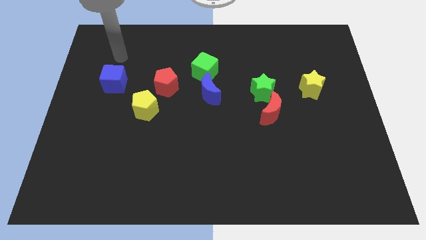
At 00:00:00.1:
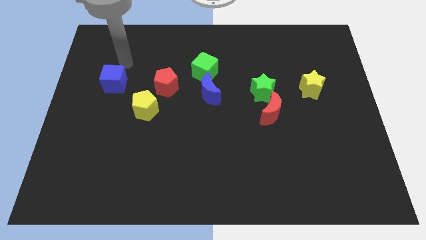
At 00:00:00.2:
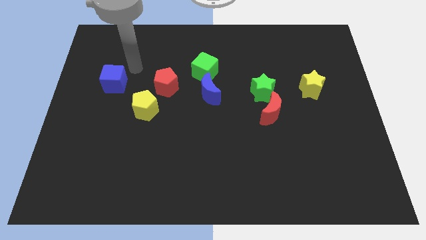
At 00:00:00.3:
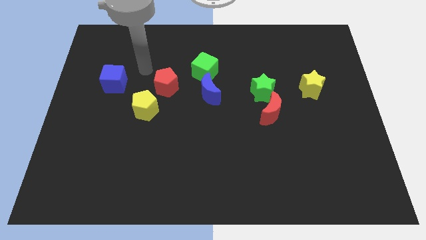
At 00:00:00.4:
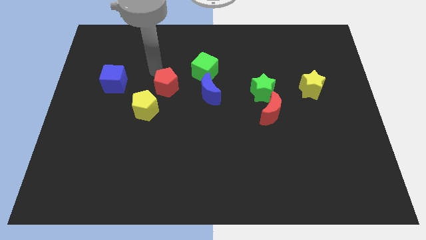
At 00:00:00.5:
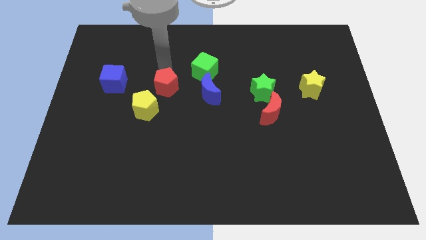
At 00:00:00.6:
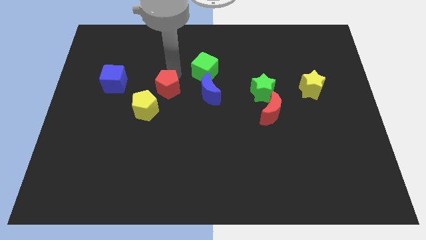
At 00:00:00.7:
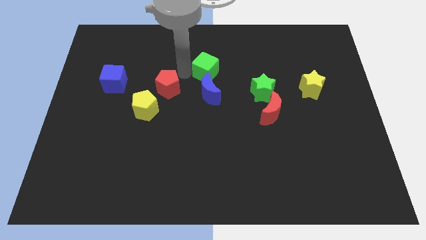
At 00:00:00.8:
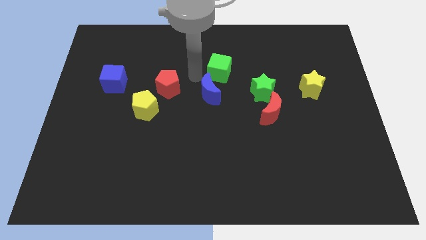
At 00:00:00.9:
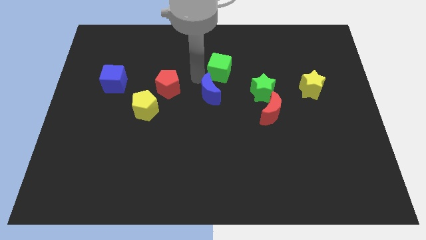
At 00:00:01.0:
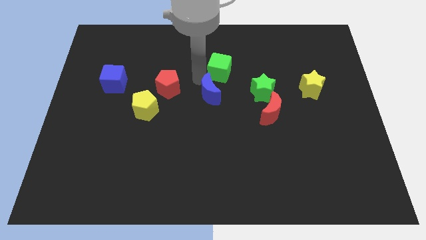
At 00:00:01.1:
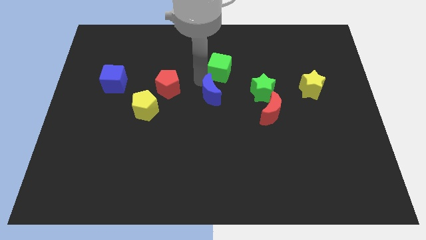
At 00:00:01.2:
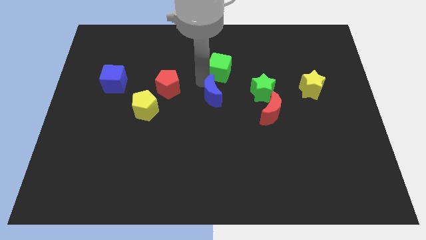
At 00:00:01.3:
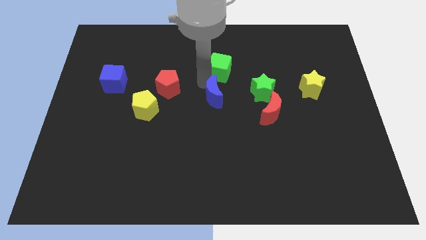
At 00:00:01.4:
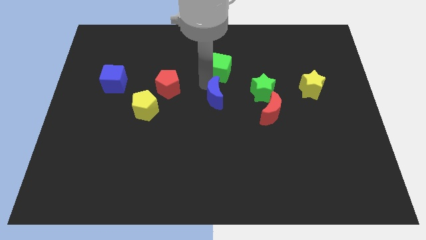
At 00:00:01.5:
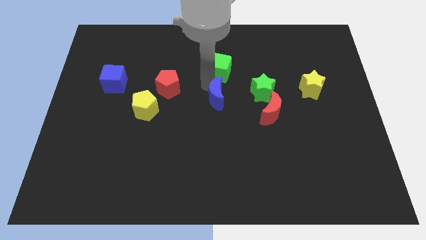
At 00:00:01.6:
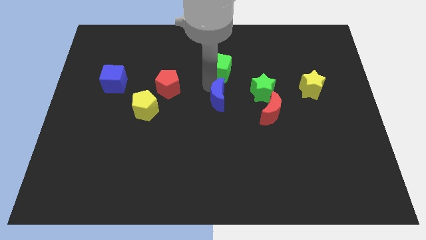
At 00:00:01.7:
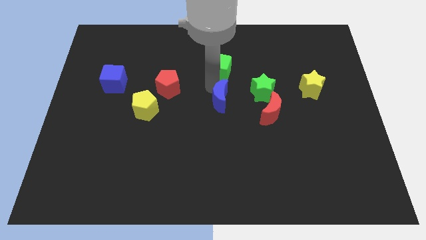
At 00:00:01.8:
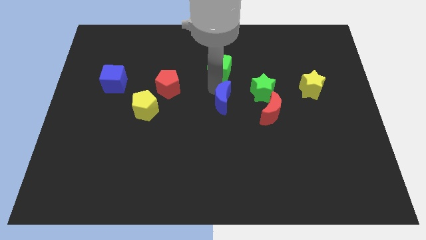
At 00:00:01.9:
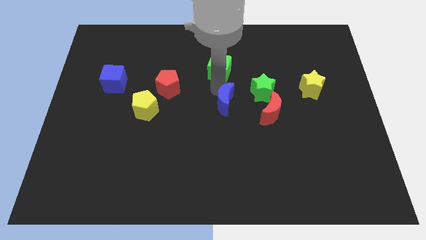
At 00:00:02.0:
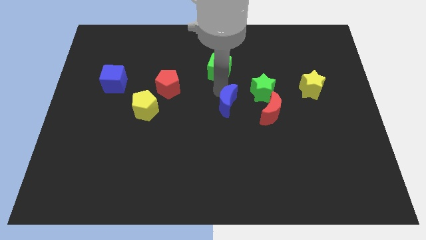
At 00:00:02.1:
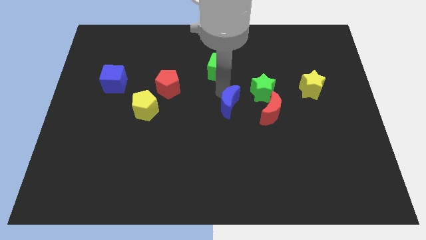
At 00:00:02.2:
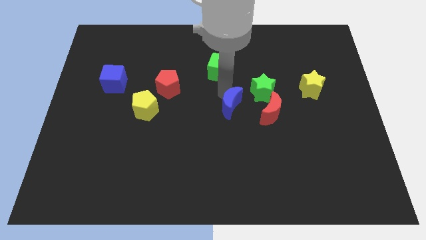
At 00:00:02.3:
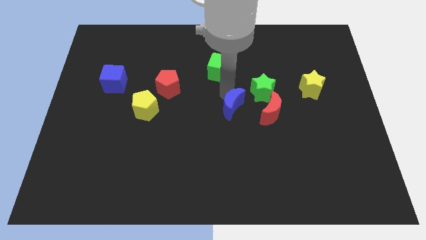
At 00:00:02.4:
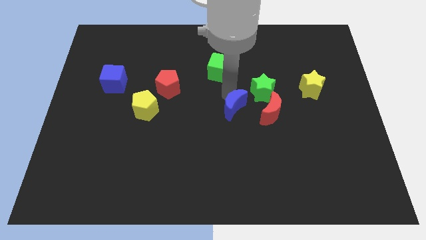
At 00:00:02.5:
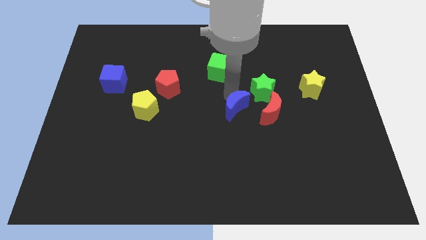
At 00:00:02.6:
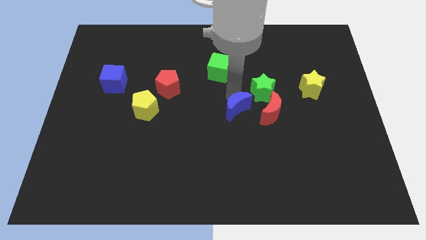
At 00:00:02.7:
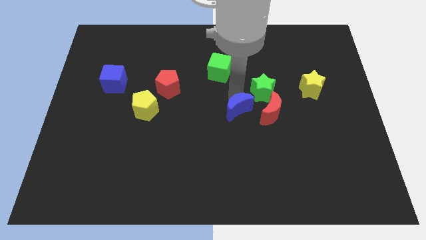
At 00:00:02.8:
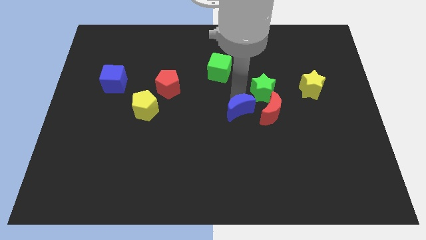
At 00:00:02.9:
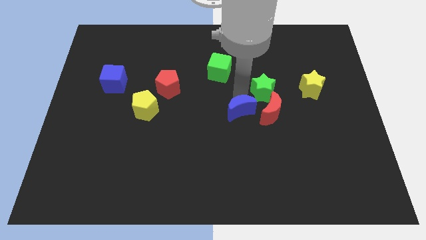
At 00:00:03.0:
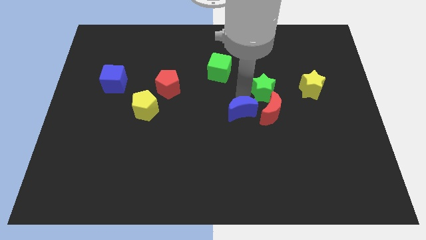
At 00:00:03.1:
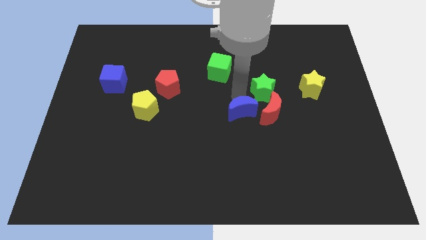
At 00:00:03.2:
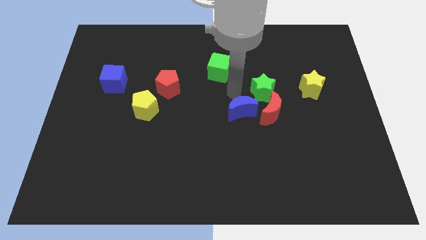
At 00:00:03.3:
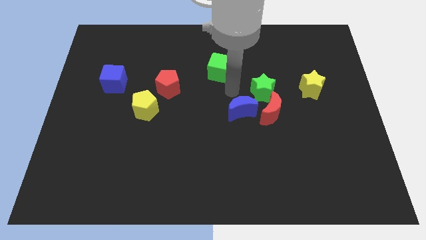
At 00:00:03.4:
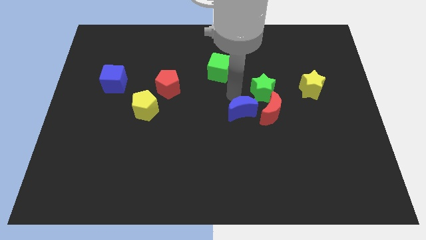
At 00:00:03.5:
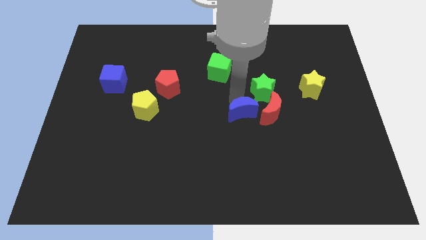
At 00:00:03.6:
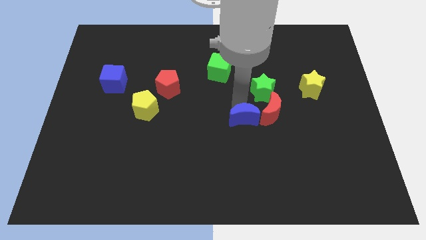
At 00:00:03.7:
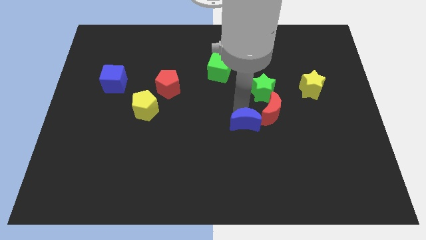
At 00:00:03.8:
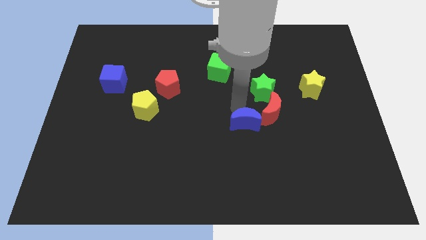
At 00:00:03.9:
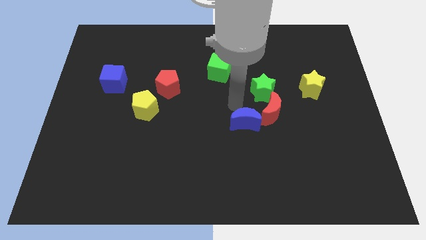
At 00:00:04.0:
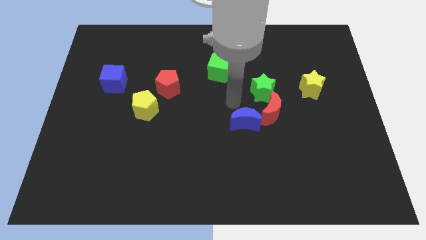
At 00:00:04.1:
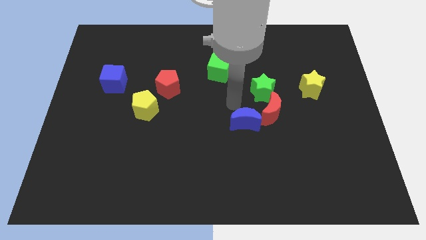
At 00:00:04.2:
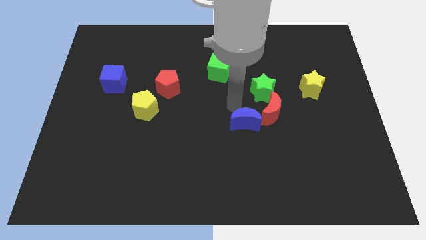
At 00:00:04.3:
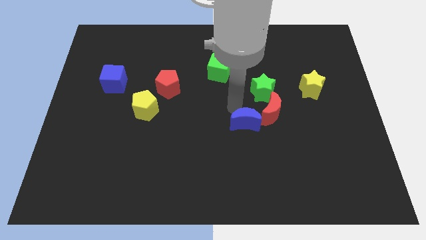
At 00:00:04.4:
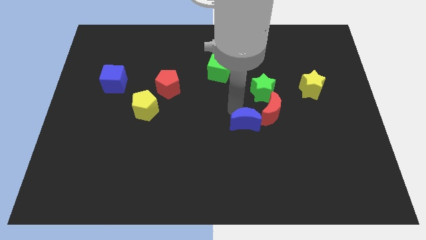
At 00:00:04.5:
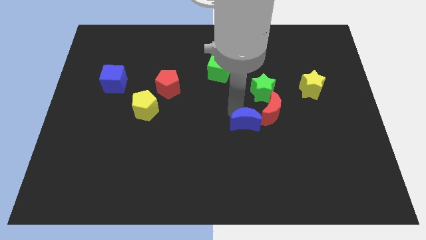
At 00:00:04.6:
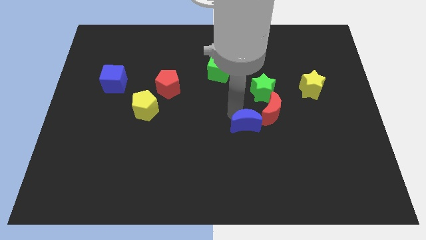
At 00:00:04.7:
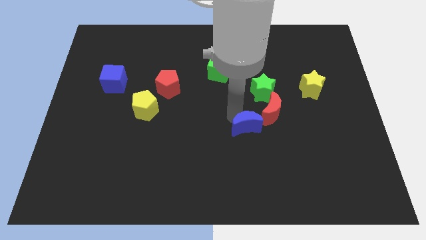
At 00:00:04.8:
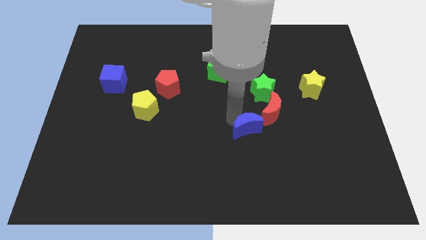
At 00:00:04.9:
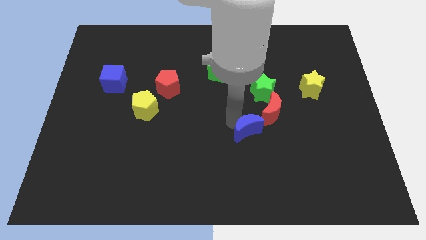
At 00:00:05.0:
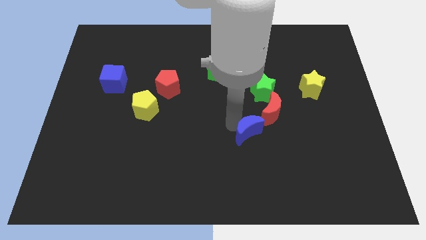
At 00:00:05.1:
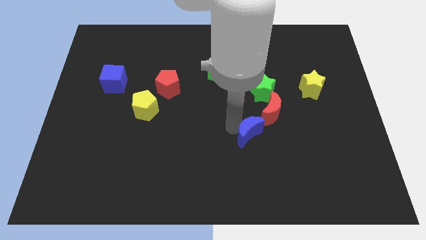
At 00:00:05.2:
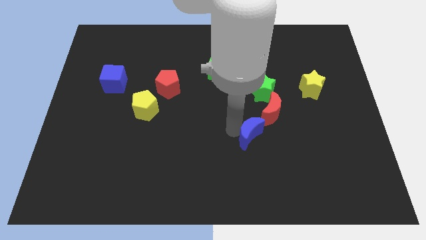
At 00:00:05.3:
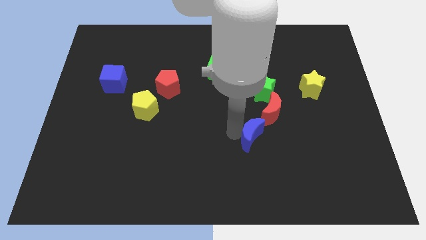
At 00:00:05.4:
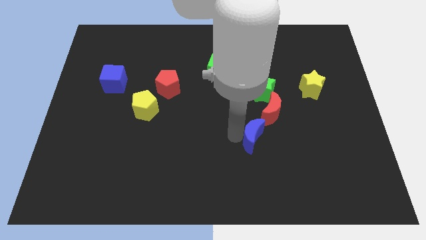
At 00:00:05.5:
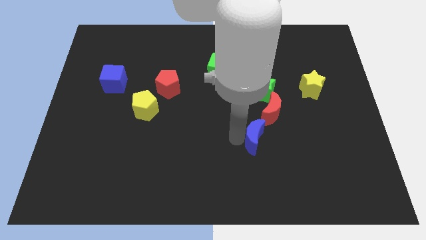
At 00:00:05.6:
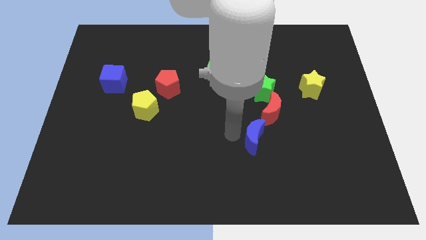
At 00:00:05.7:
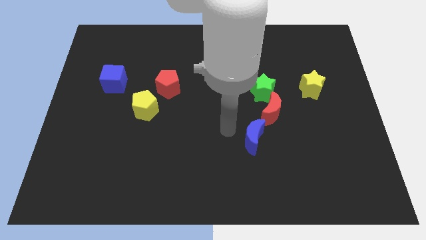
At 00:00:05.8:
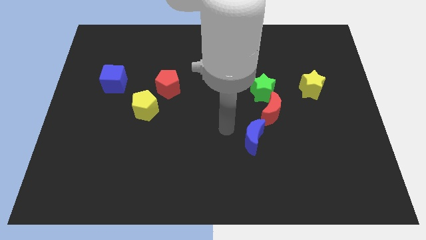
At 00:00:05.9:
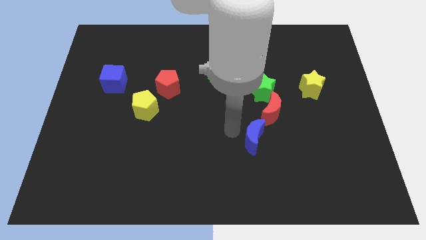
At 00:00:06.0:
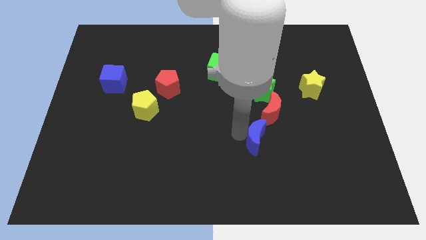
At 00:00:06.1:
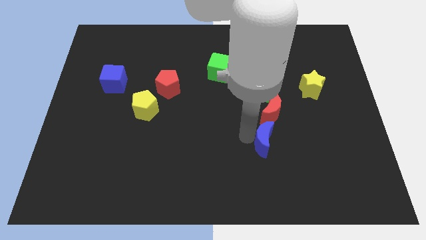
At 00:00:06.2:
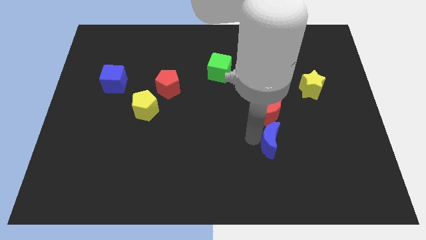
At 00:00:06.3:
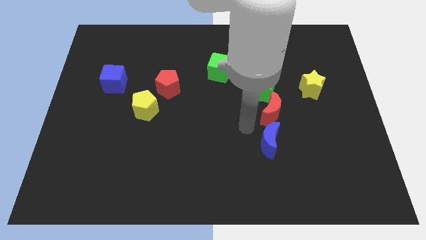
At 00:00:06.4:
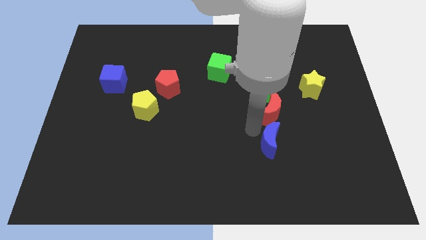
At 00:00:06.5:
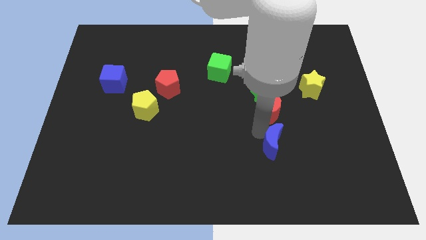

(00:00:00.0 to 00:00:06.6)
slide the blue moon down and then to the right

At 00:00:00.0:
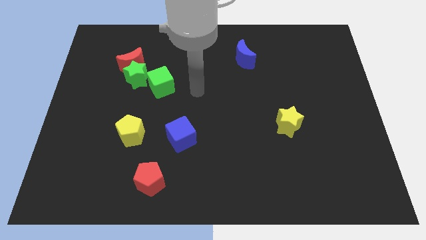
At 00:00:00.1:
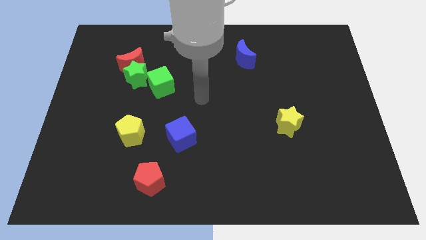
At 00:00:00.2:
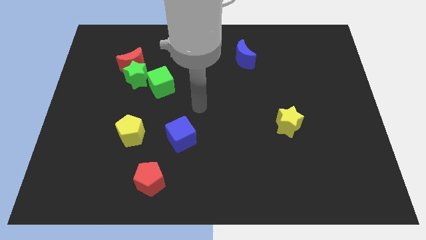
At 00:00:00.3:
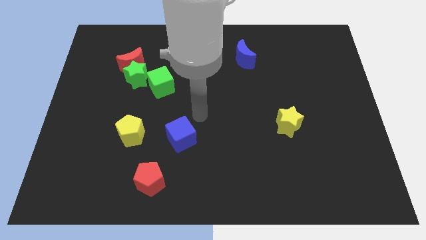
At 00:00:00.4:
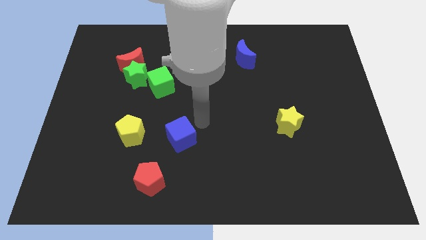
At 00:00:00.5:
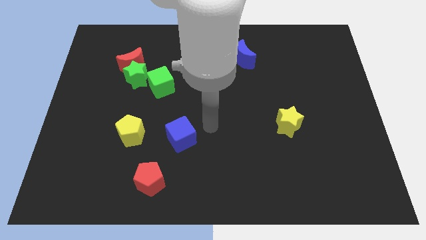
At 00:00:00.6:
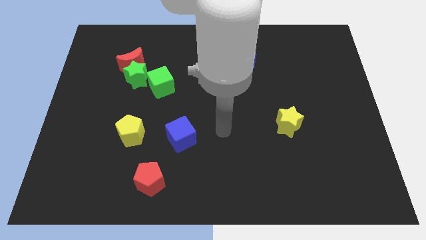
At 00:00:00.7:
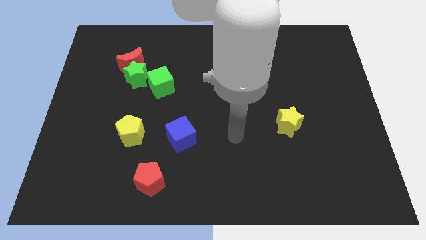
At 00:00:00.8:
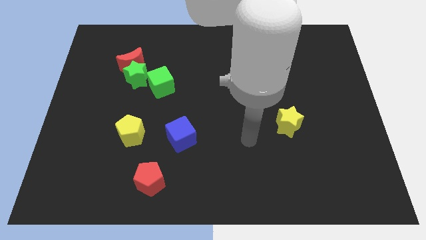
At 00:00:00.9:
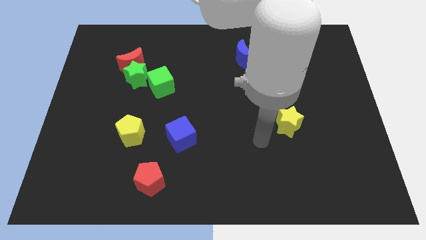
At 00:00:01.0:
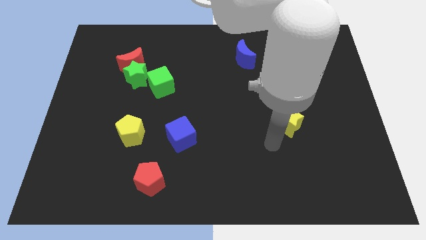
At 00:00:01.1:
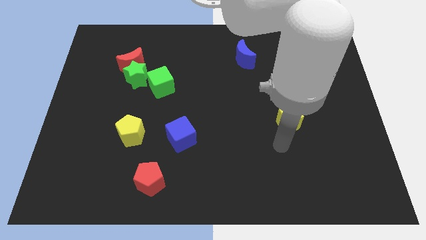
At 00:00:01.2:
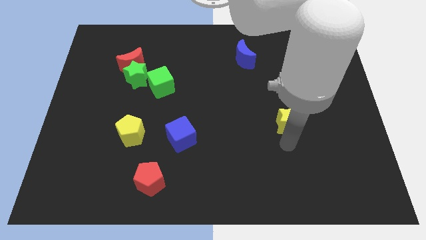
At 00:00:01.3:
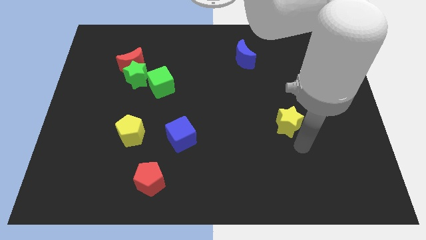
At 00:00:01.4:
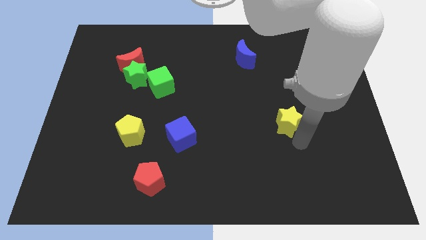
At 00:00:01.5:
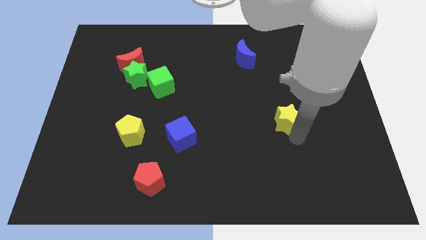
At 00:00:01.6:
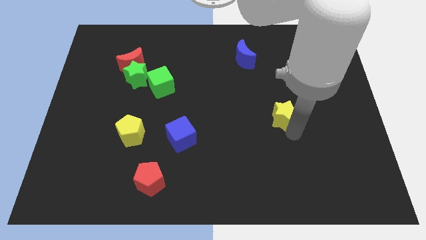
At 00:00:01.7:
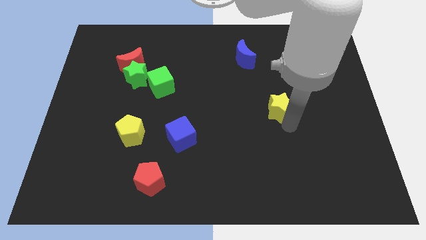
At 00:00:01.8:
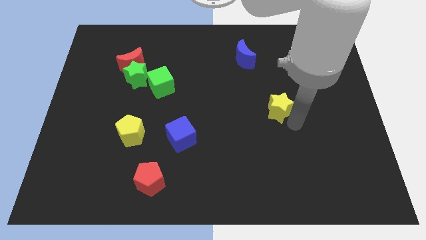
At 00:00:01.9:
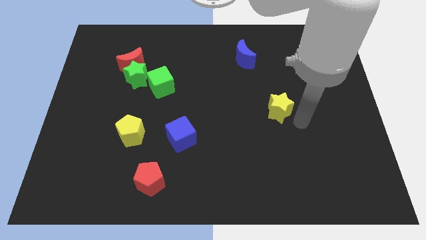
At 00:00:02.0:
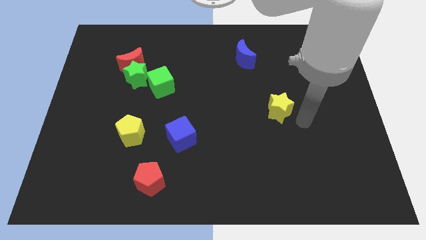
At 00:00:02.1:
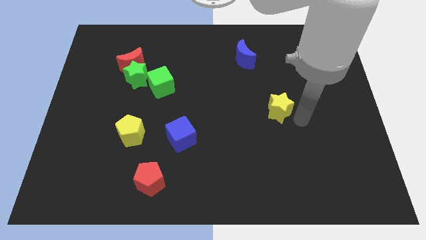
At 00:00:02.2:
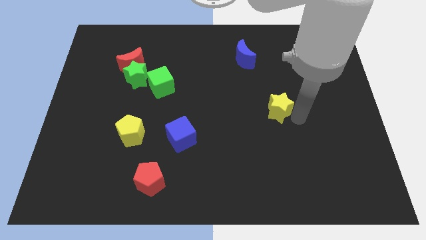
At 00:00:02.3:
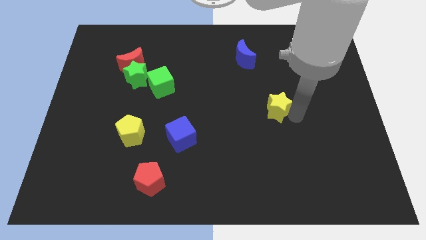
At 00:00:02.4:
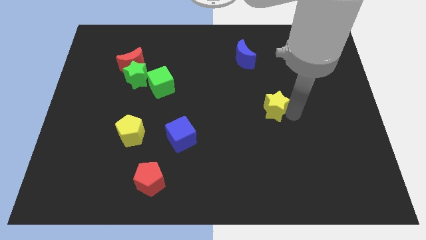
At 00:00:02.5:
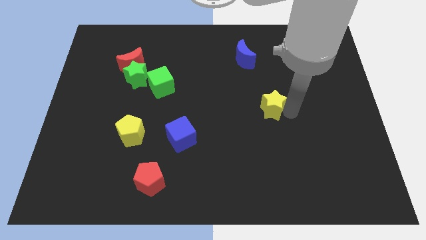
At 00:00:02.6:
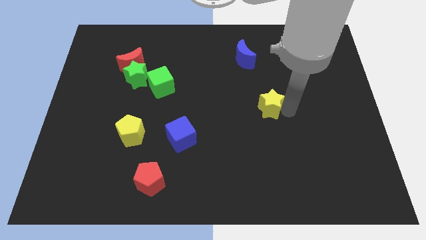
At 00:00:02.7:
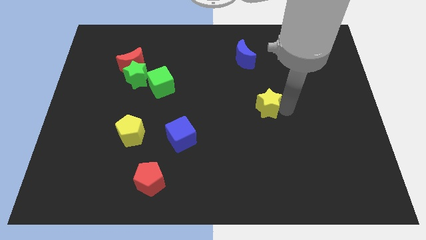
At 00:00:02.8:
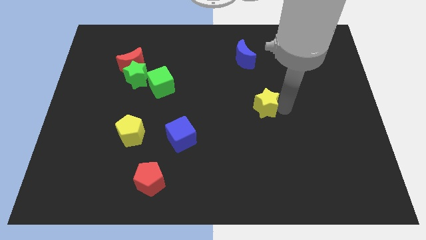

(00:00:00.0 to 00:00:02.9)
slide the yellow star somewhat up and to the left
